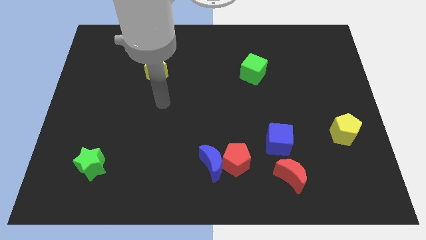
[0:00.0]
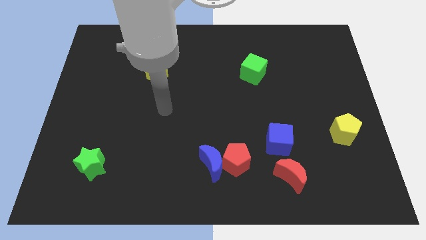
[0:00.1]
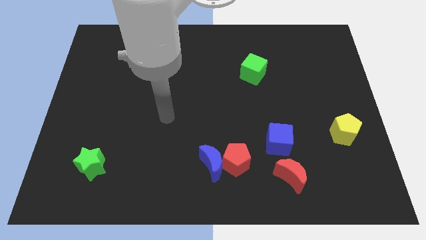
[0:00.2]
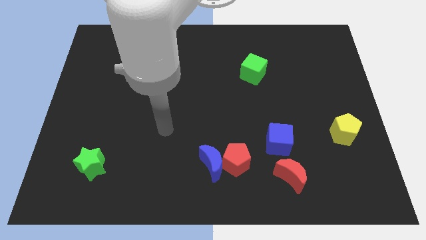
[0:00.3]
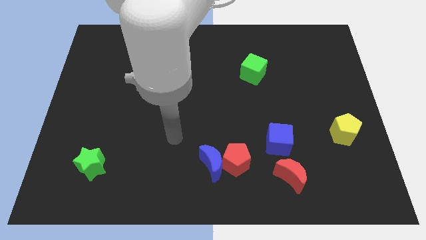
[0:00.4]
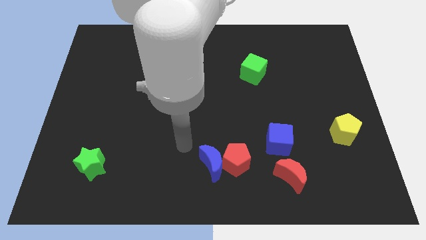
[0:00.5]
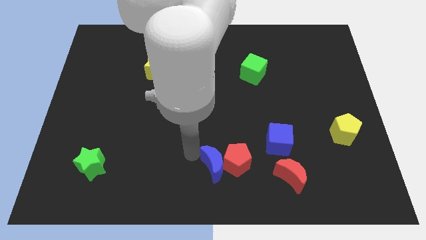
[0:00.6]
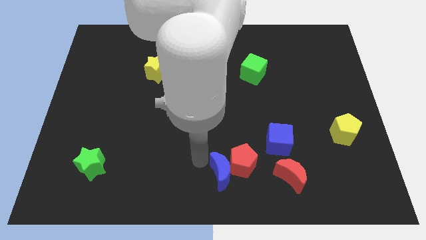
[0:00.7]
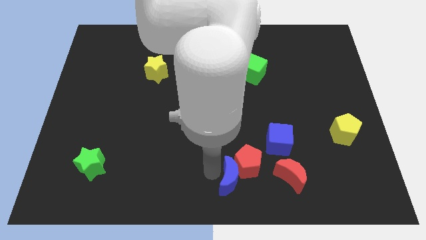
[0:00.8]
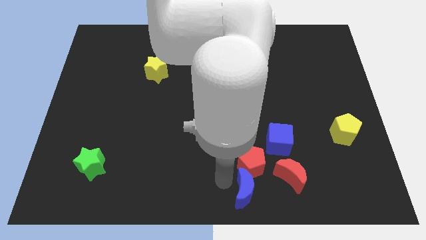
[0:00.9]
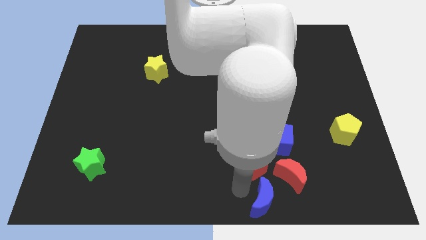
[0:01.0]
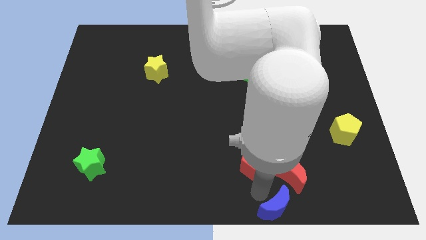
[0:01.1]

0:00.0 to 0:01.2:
separate the red pentagon from the blue moon

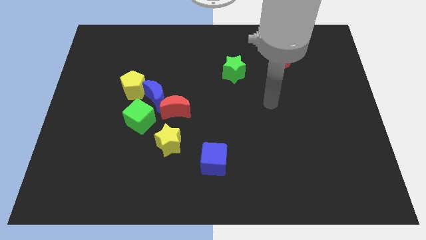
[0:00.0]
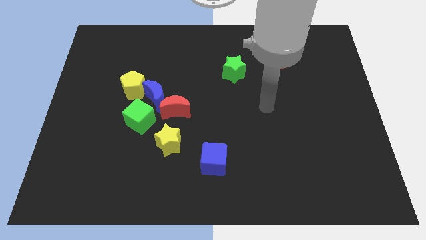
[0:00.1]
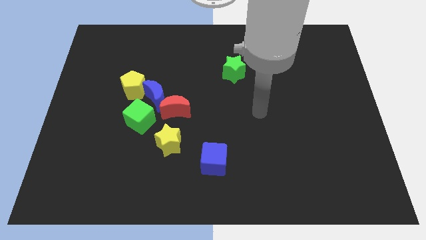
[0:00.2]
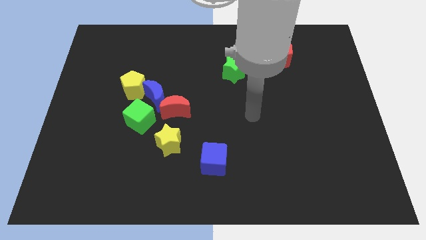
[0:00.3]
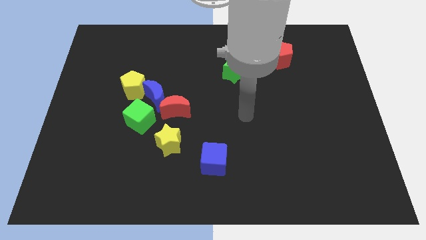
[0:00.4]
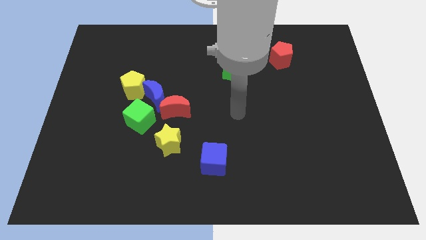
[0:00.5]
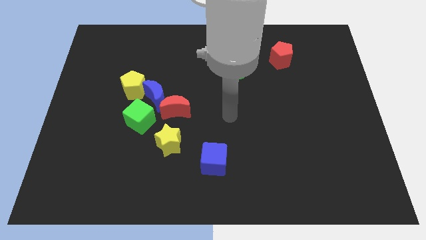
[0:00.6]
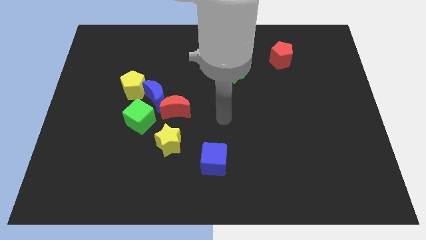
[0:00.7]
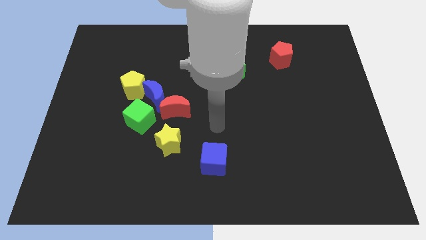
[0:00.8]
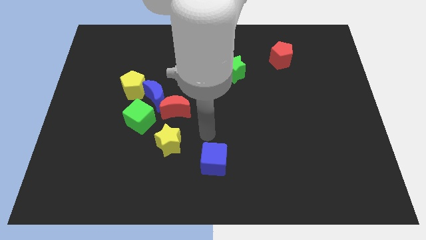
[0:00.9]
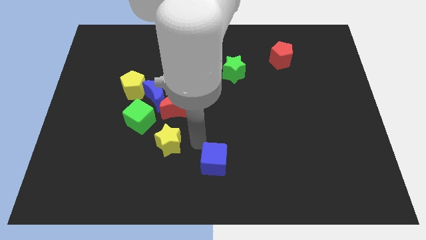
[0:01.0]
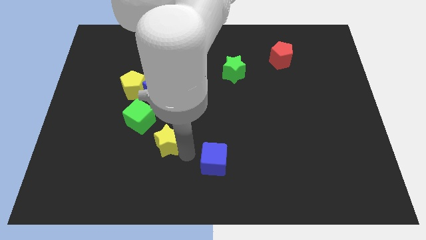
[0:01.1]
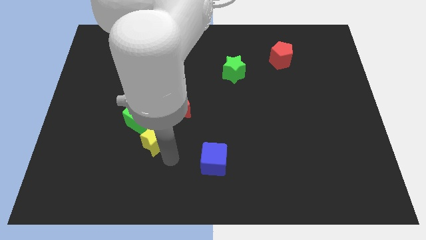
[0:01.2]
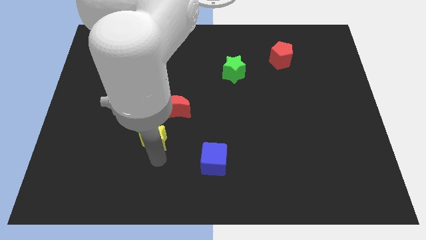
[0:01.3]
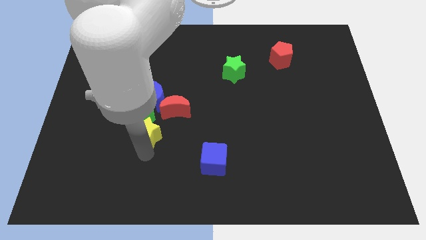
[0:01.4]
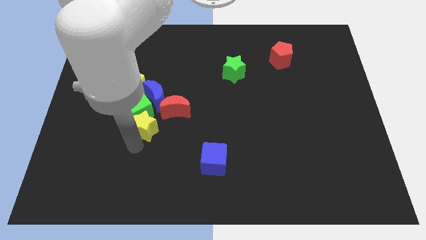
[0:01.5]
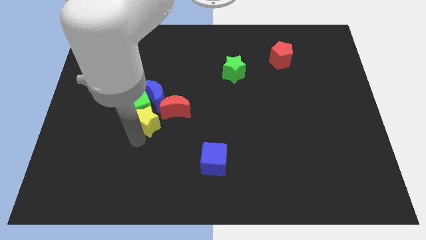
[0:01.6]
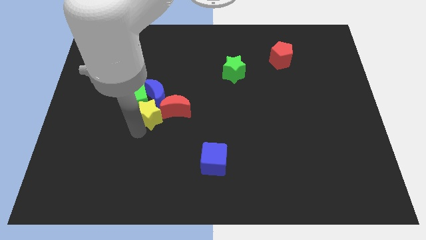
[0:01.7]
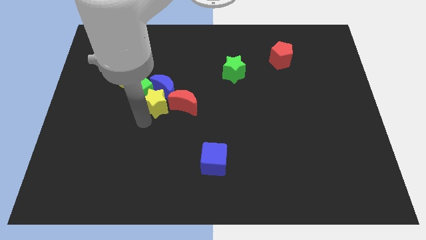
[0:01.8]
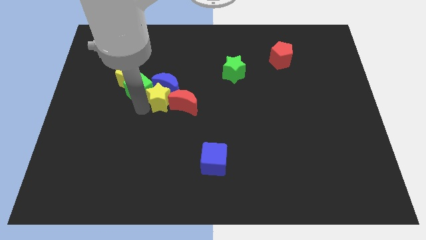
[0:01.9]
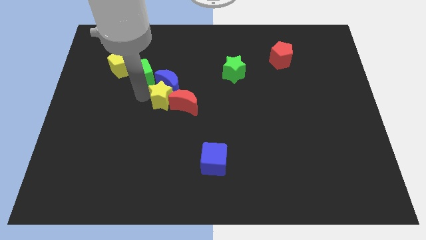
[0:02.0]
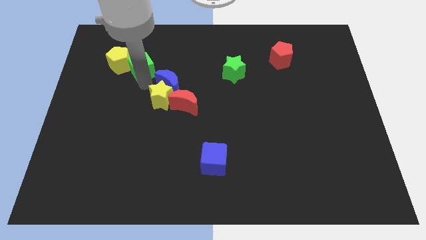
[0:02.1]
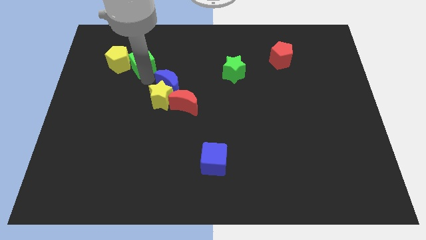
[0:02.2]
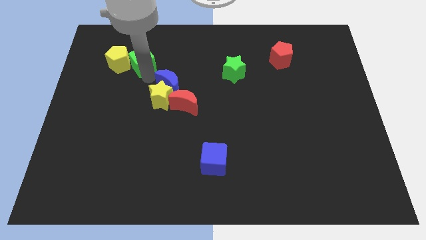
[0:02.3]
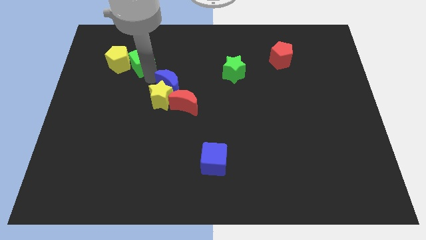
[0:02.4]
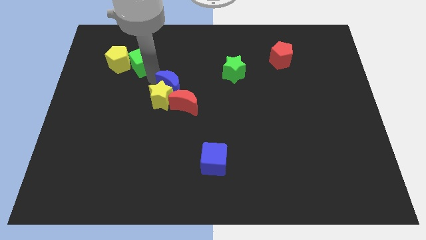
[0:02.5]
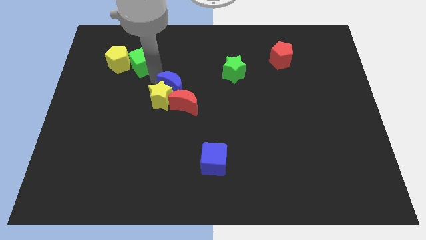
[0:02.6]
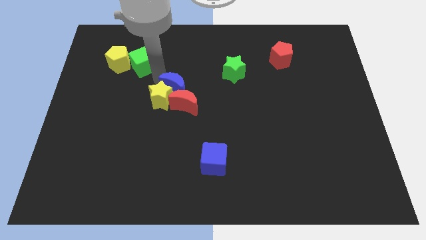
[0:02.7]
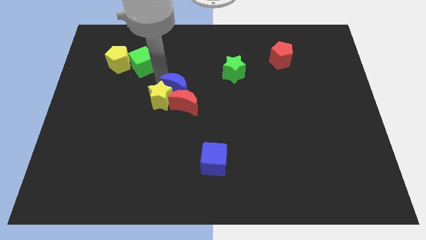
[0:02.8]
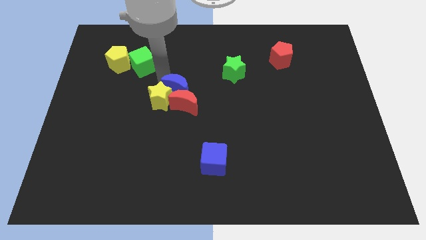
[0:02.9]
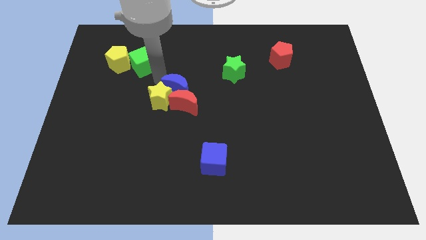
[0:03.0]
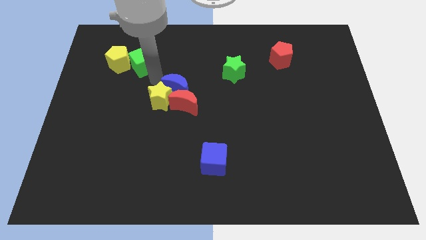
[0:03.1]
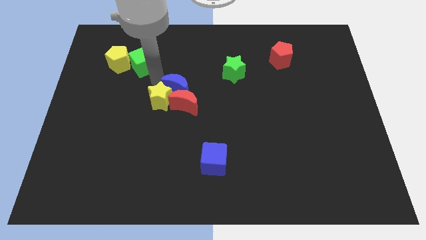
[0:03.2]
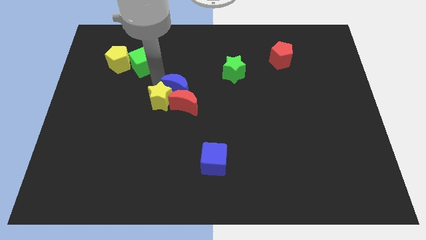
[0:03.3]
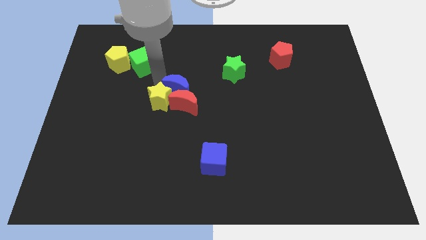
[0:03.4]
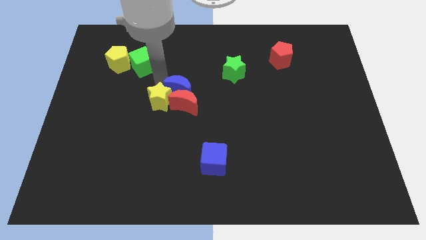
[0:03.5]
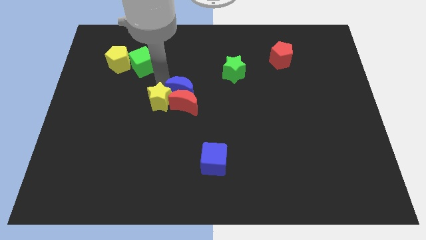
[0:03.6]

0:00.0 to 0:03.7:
separate the blue moon from the group

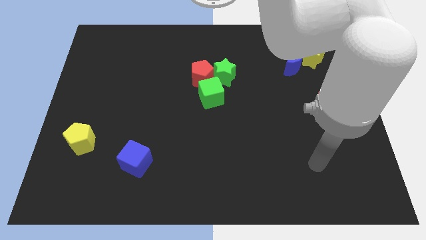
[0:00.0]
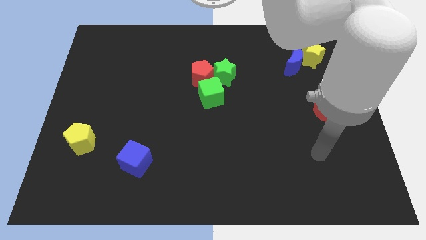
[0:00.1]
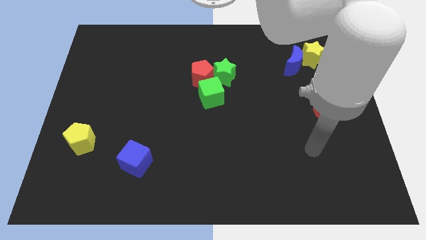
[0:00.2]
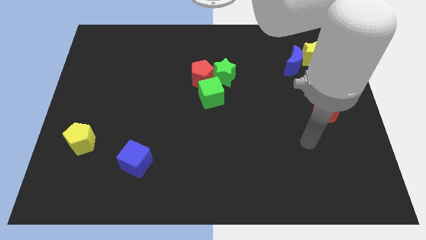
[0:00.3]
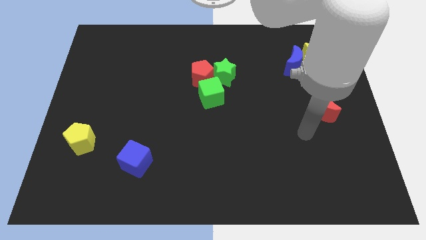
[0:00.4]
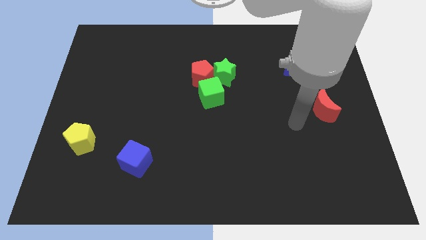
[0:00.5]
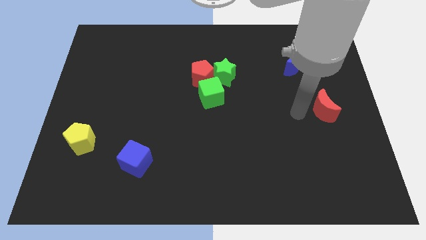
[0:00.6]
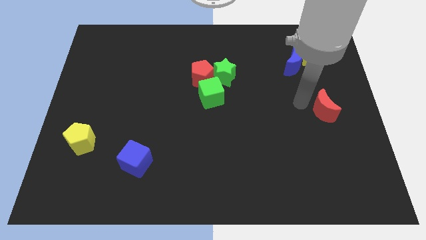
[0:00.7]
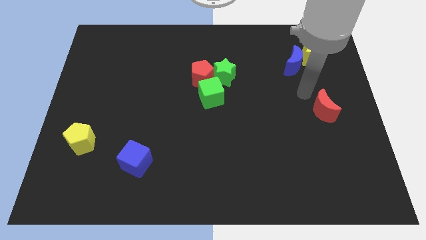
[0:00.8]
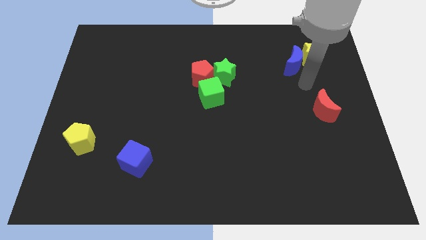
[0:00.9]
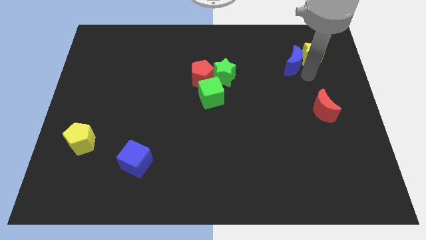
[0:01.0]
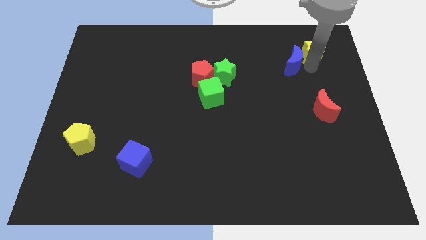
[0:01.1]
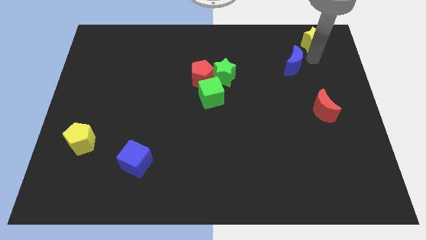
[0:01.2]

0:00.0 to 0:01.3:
separate the blue moon from the yellow star

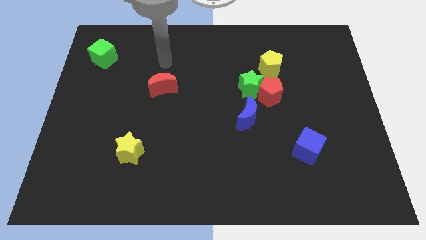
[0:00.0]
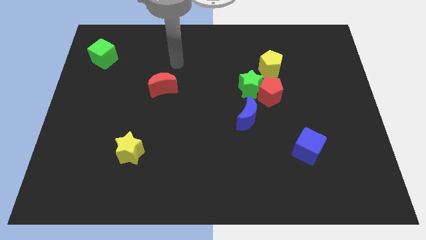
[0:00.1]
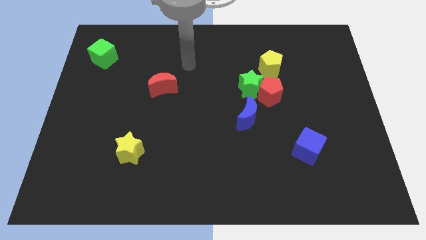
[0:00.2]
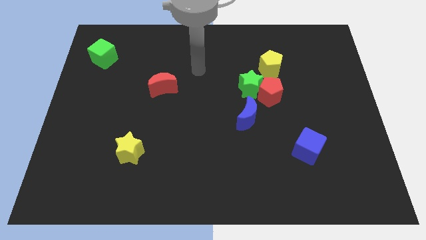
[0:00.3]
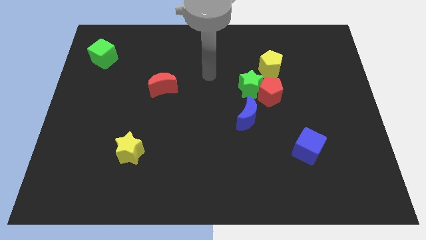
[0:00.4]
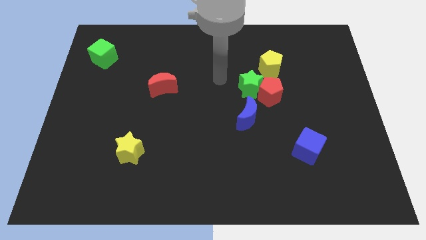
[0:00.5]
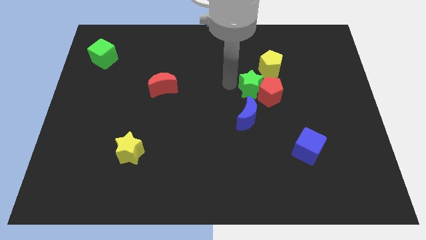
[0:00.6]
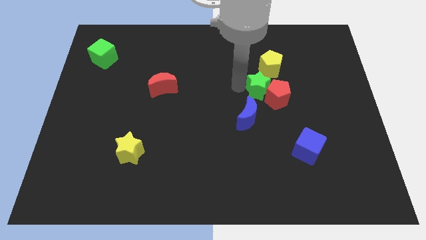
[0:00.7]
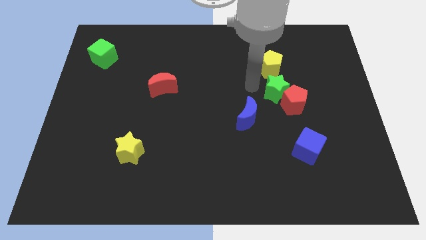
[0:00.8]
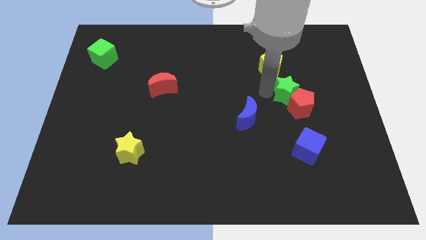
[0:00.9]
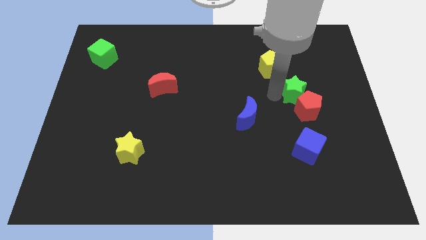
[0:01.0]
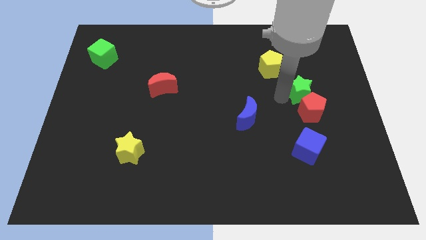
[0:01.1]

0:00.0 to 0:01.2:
pull the red pentagon apart from the clump

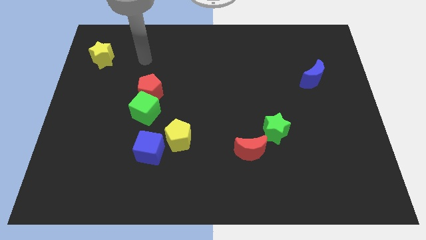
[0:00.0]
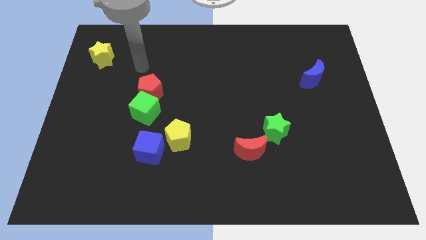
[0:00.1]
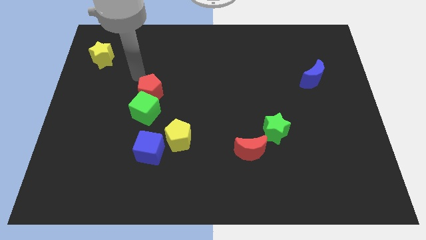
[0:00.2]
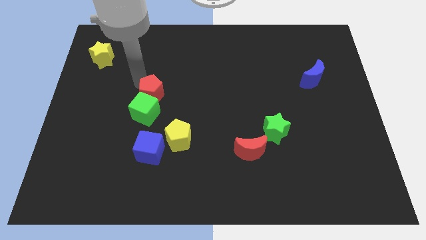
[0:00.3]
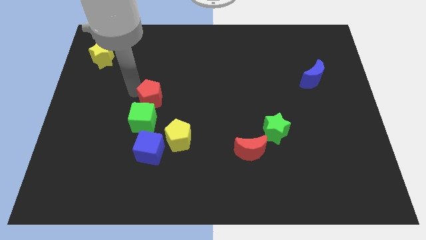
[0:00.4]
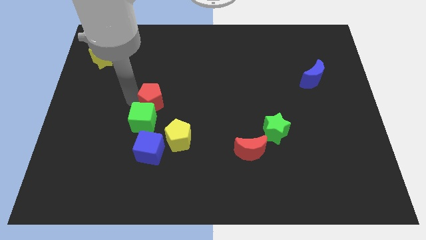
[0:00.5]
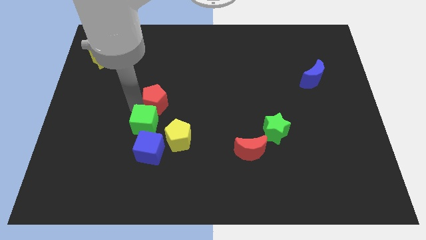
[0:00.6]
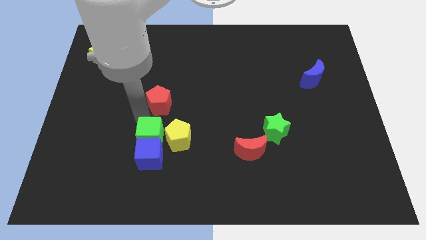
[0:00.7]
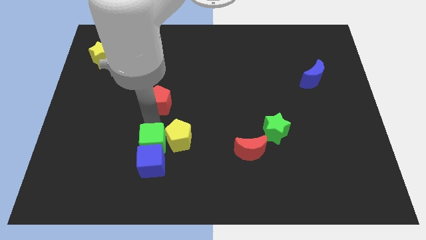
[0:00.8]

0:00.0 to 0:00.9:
move the red pentagon away from the green cube

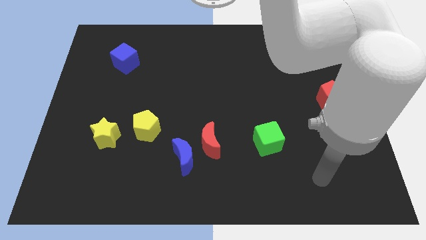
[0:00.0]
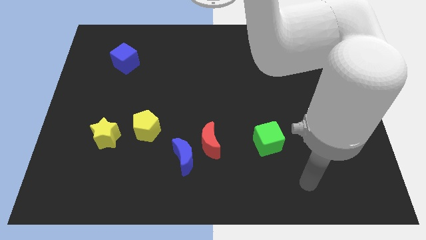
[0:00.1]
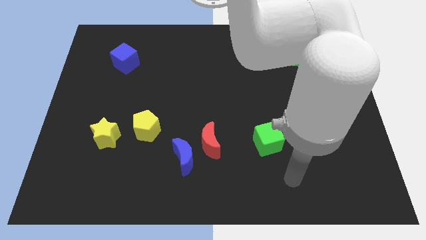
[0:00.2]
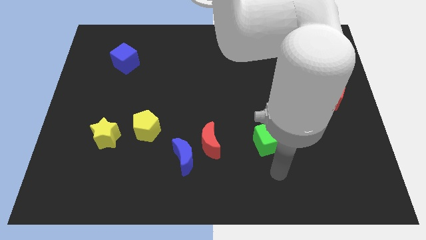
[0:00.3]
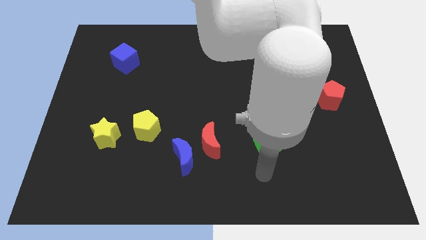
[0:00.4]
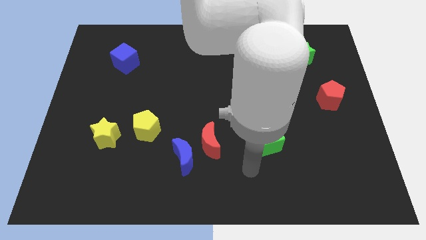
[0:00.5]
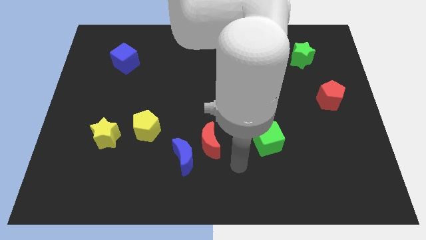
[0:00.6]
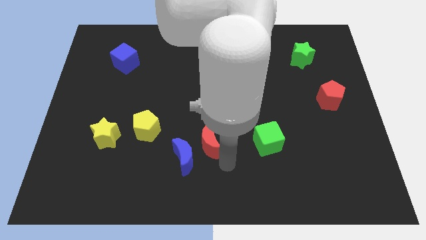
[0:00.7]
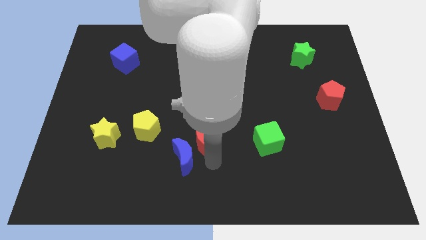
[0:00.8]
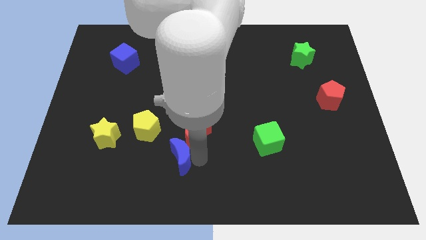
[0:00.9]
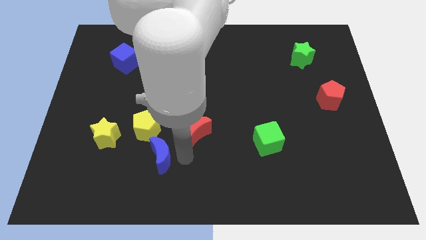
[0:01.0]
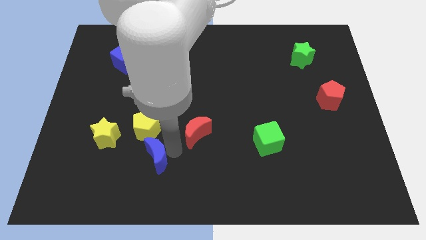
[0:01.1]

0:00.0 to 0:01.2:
separate the red moon from the blue moon

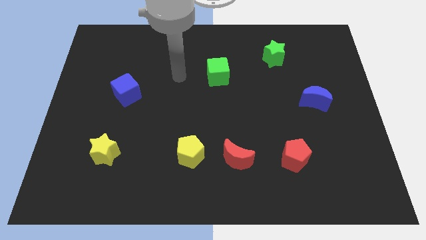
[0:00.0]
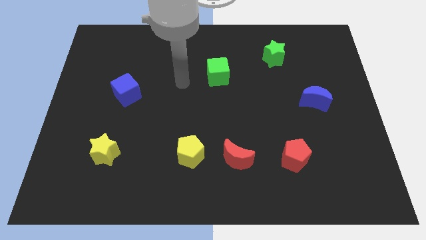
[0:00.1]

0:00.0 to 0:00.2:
separate the red moon from the yellow pentagon
